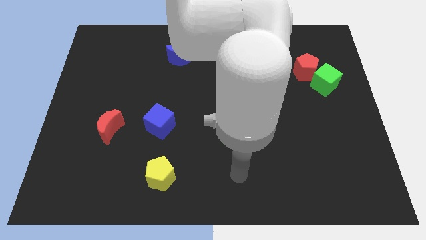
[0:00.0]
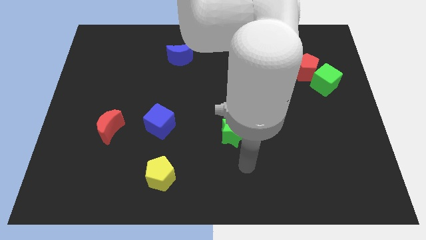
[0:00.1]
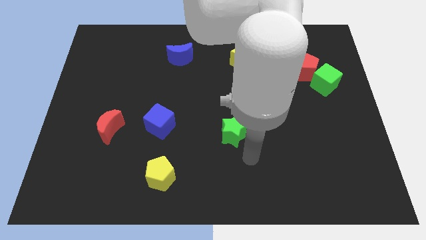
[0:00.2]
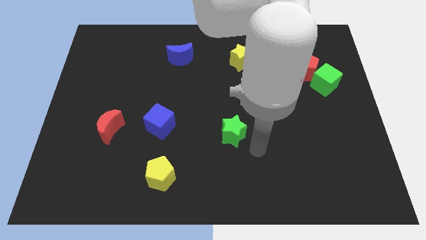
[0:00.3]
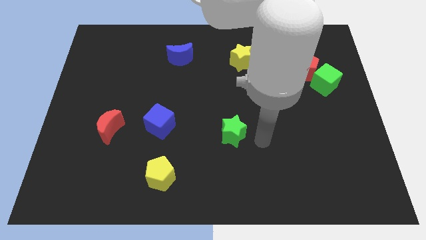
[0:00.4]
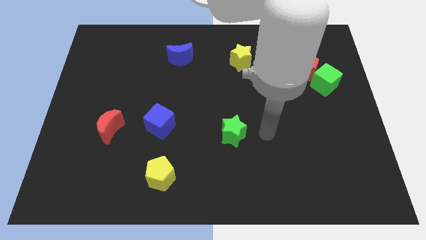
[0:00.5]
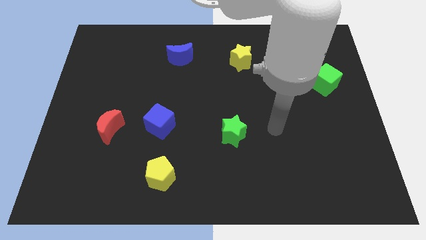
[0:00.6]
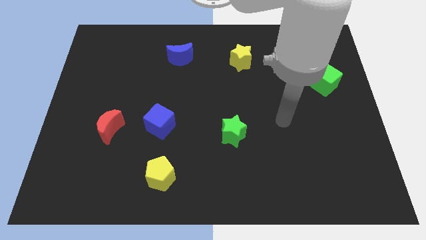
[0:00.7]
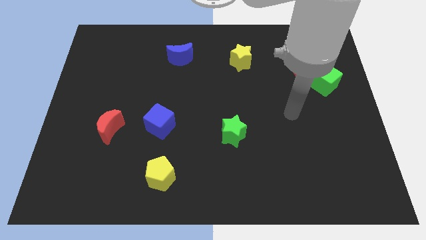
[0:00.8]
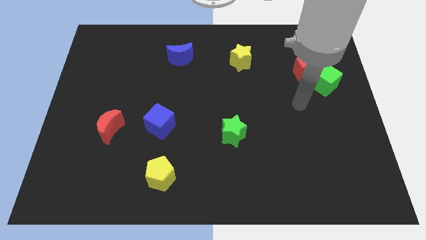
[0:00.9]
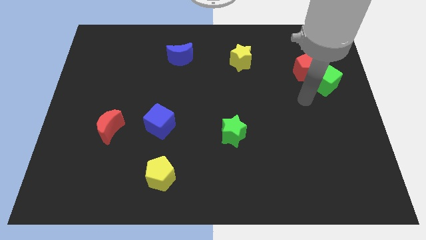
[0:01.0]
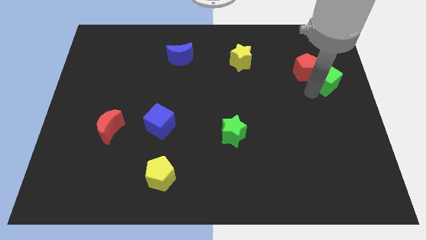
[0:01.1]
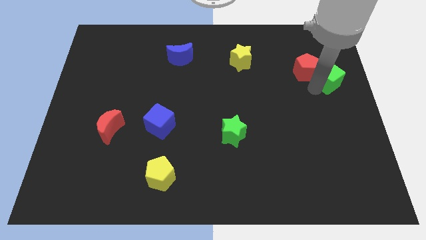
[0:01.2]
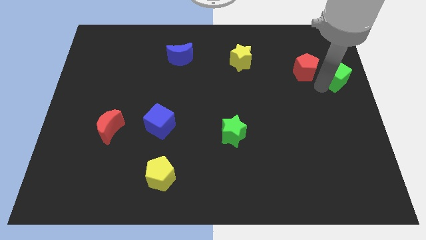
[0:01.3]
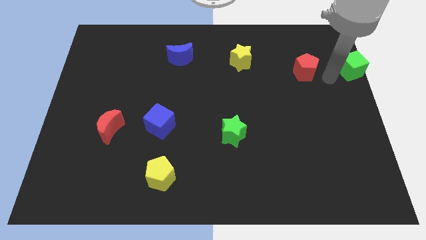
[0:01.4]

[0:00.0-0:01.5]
pull the red pentagon apart from the green cube

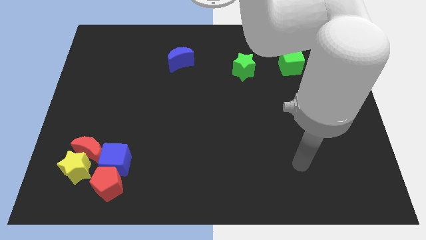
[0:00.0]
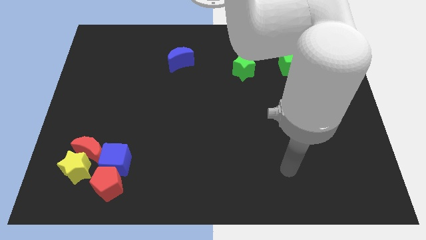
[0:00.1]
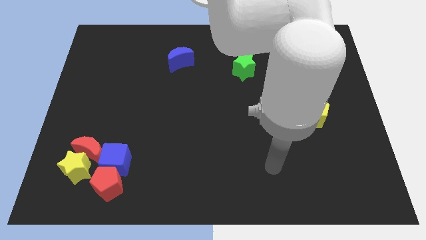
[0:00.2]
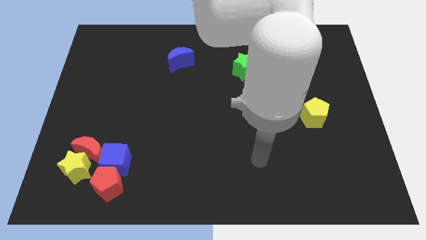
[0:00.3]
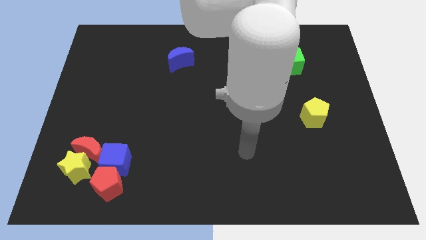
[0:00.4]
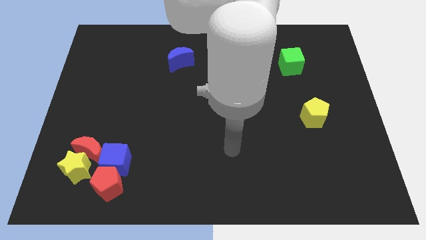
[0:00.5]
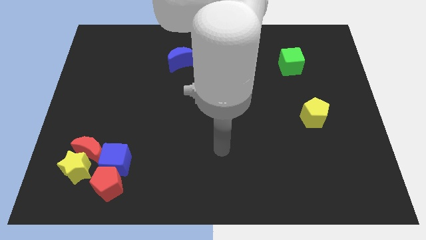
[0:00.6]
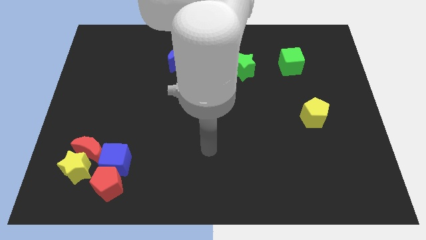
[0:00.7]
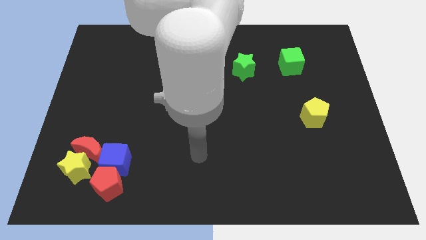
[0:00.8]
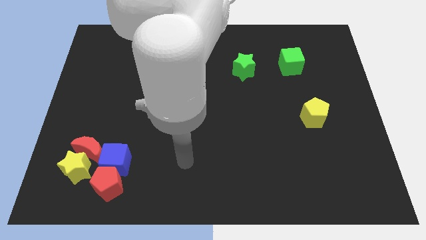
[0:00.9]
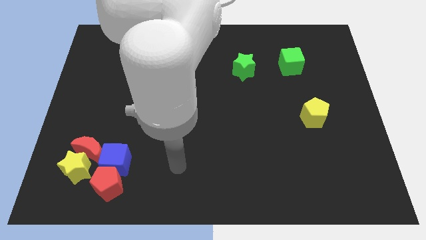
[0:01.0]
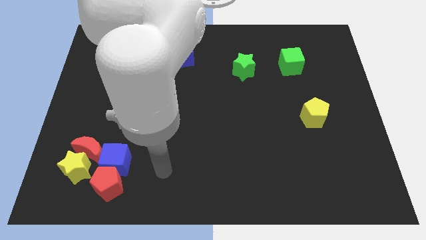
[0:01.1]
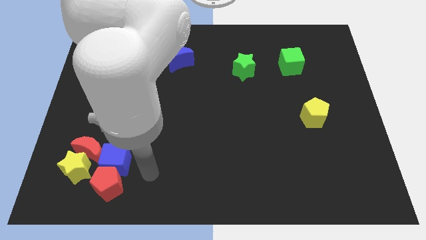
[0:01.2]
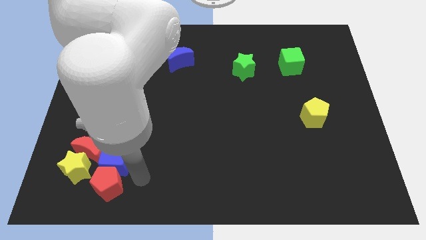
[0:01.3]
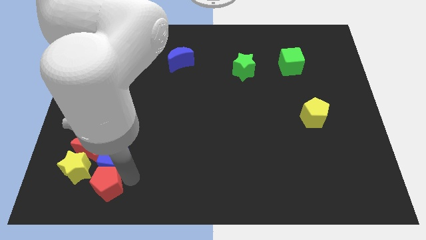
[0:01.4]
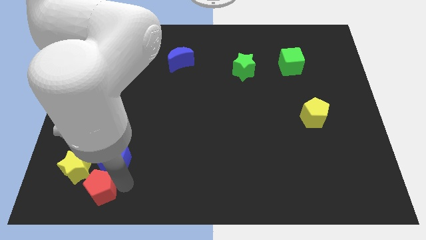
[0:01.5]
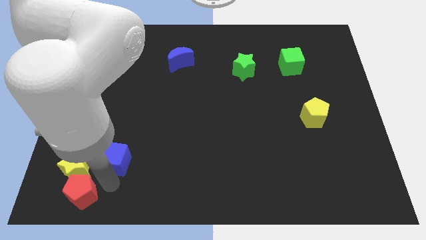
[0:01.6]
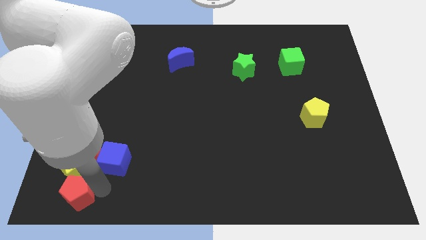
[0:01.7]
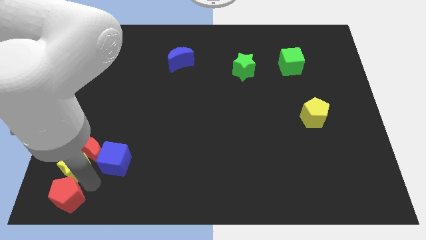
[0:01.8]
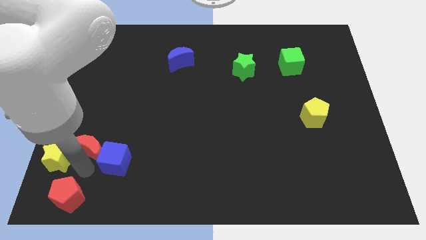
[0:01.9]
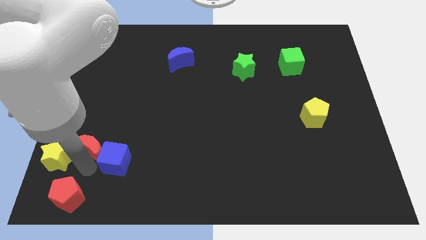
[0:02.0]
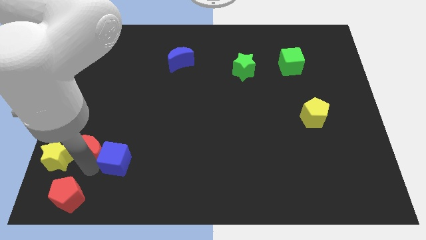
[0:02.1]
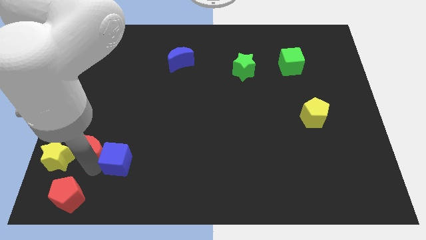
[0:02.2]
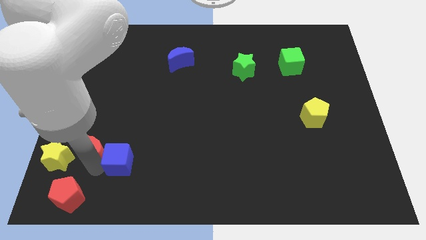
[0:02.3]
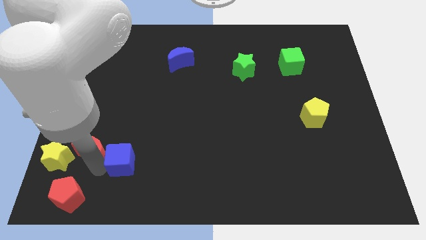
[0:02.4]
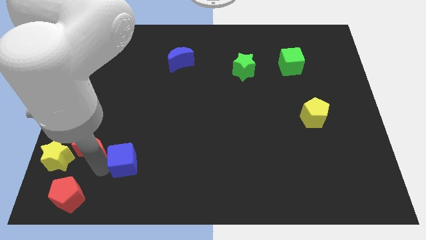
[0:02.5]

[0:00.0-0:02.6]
move the blue cube away from the red pentagon, red moon, and yellow star

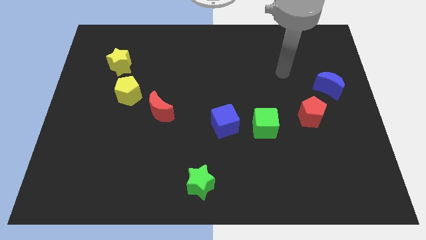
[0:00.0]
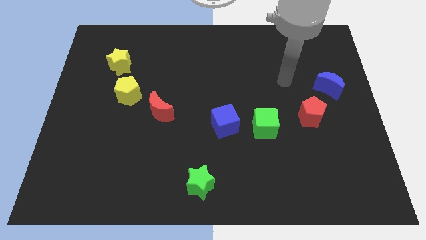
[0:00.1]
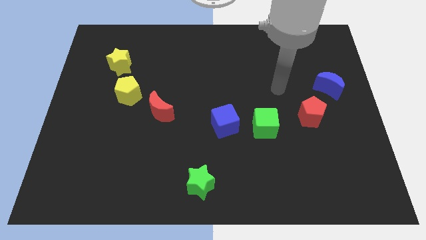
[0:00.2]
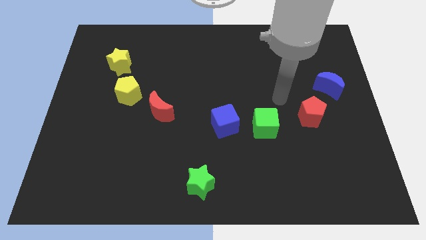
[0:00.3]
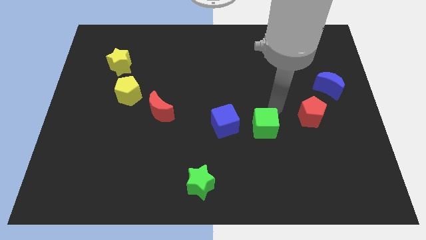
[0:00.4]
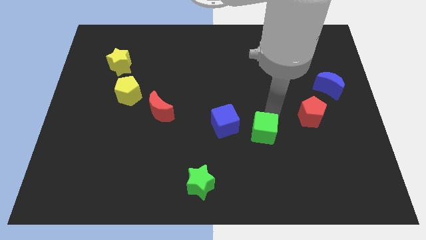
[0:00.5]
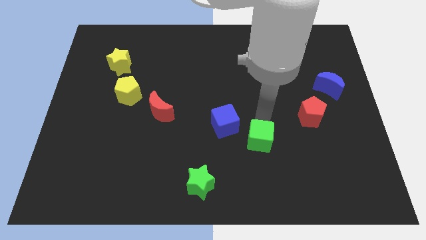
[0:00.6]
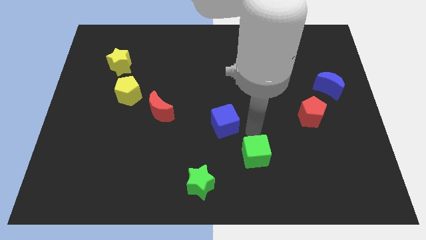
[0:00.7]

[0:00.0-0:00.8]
pull the blue cube apart from the green cube

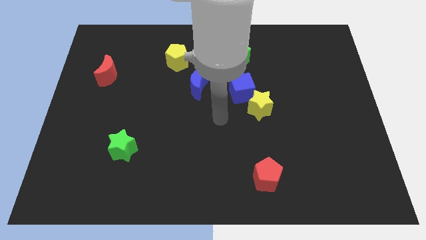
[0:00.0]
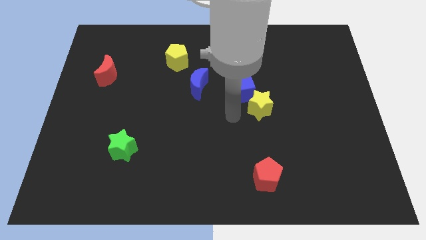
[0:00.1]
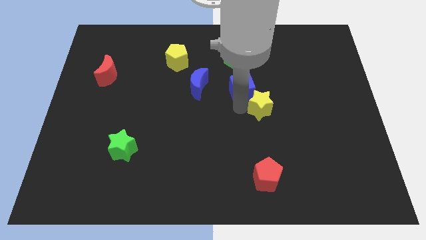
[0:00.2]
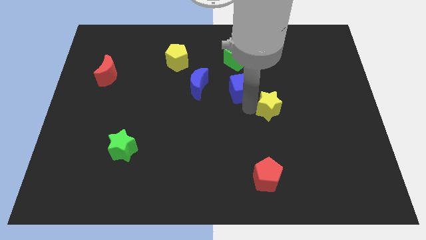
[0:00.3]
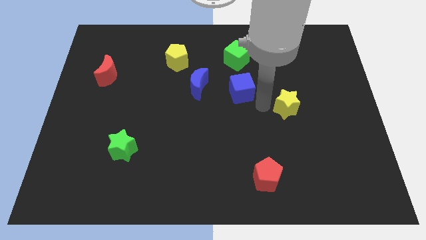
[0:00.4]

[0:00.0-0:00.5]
separate the blue cube from the yellow star

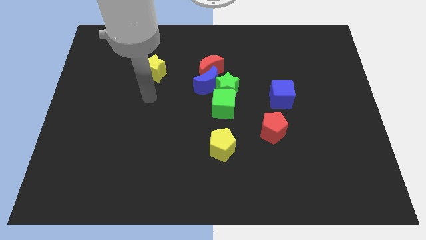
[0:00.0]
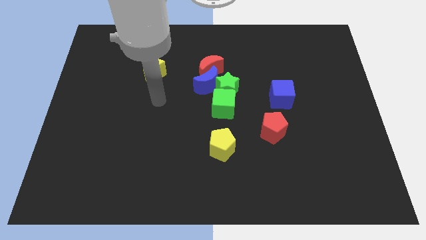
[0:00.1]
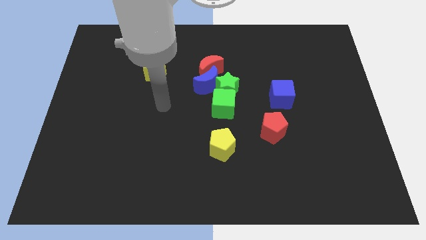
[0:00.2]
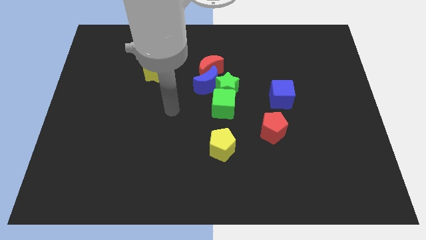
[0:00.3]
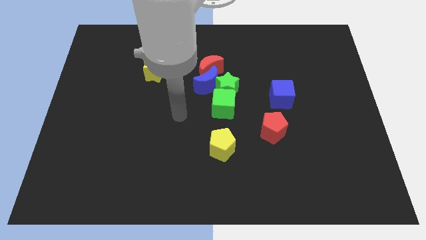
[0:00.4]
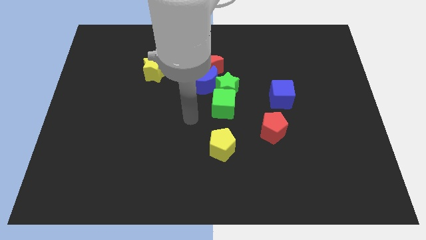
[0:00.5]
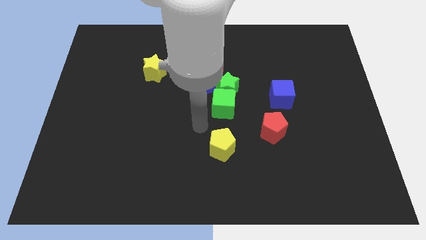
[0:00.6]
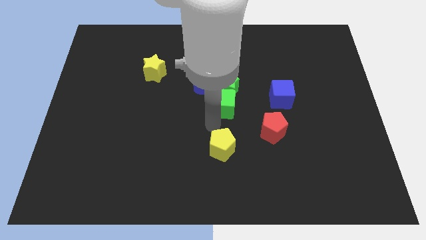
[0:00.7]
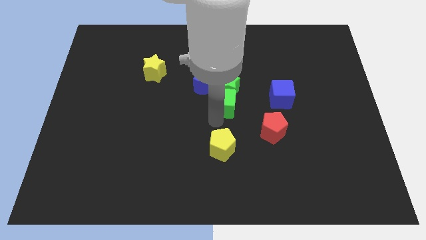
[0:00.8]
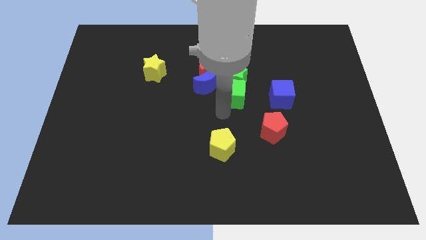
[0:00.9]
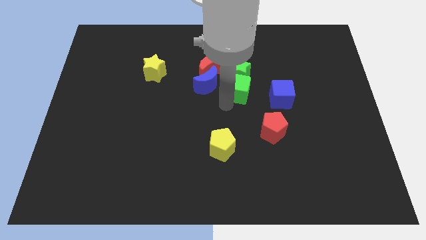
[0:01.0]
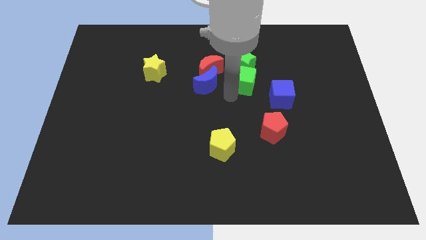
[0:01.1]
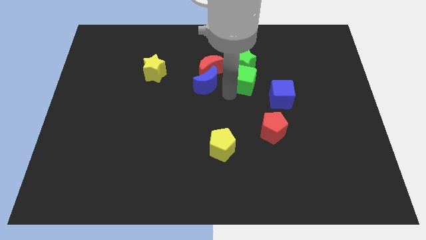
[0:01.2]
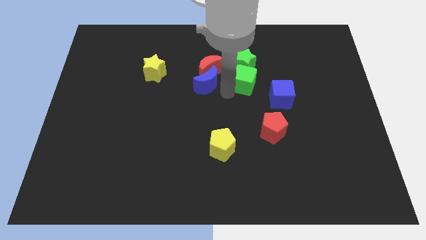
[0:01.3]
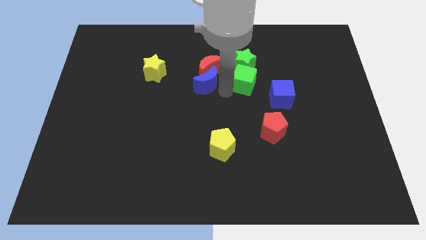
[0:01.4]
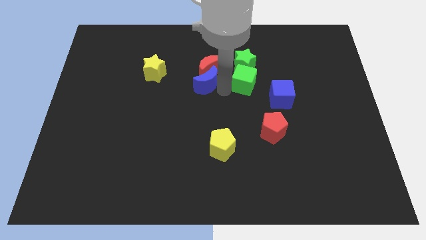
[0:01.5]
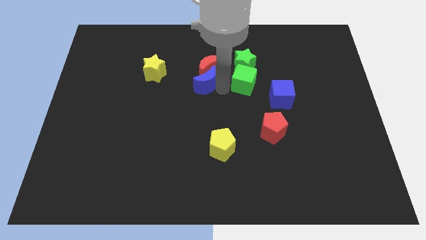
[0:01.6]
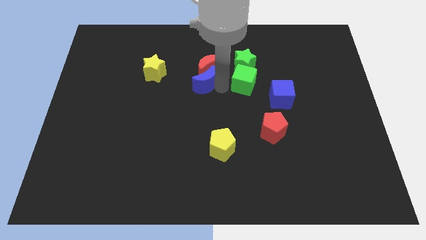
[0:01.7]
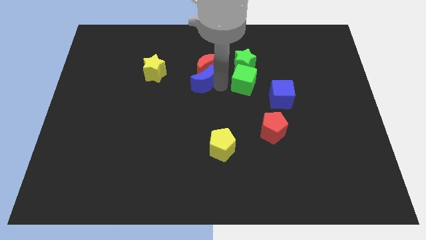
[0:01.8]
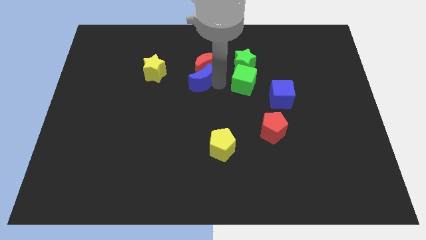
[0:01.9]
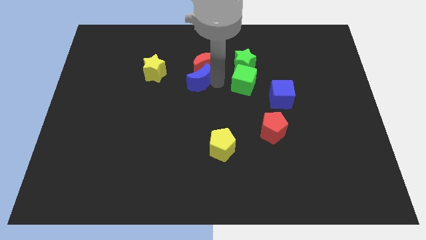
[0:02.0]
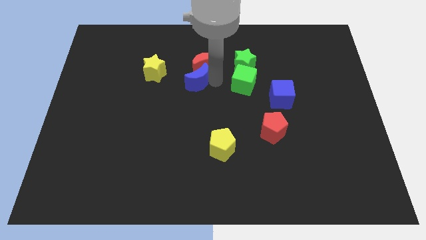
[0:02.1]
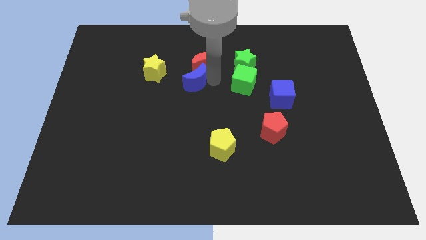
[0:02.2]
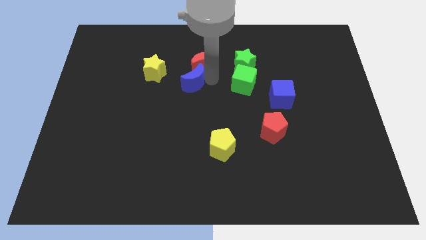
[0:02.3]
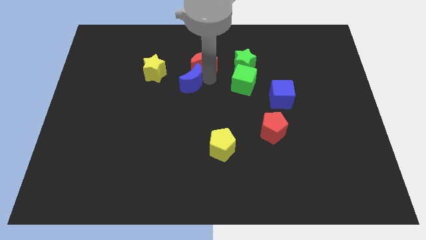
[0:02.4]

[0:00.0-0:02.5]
pull the blue moon apart from the green star, red moon, and green cube

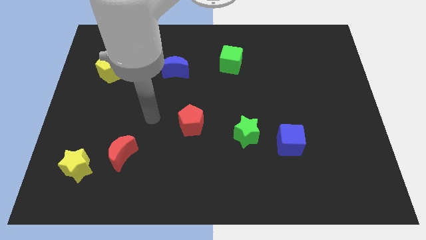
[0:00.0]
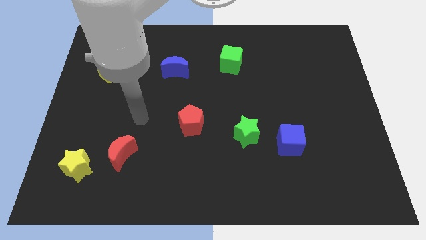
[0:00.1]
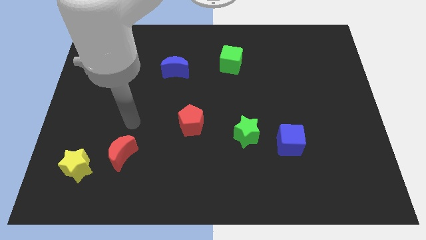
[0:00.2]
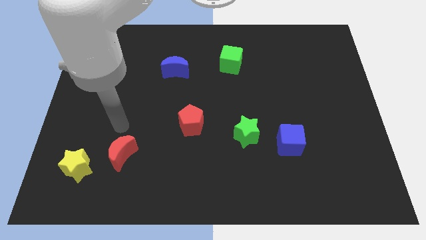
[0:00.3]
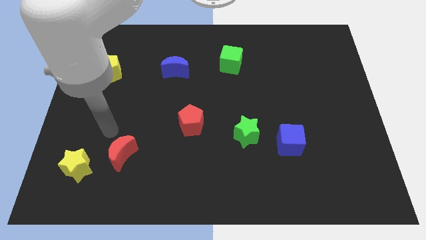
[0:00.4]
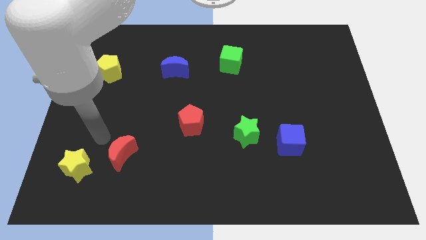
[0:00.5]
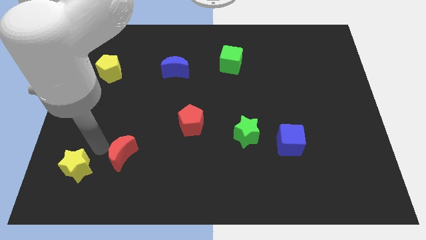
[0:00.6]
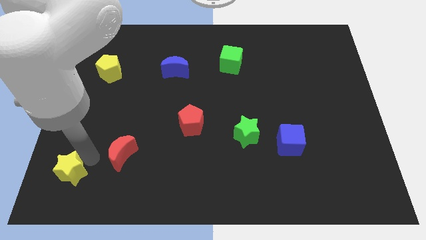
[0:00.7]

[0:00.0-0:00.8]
separate the red moon from the yellow star

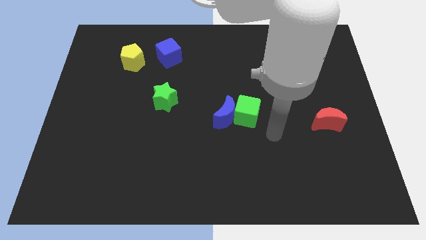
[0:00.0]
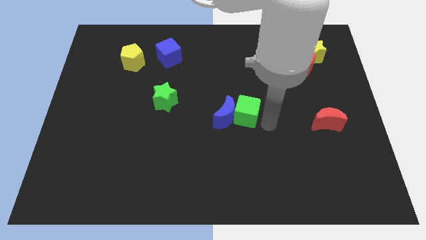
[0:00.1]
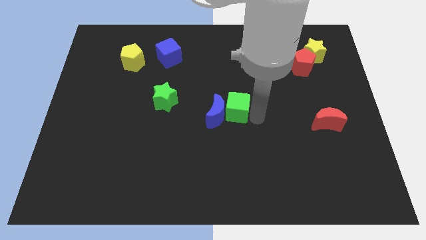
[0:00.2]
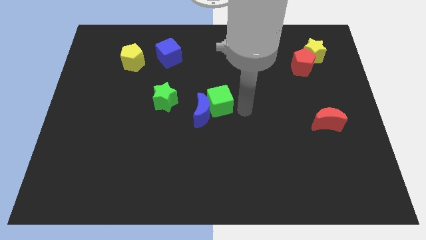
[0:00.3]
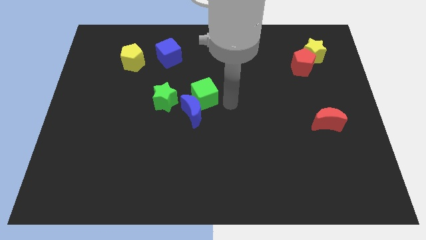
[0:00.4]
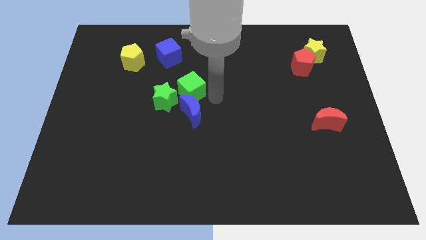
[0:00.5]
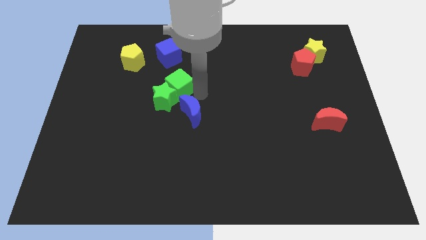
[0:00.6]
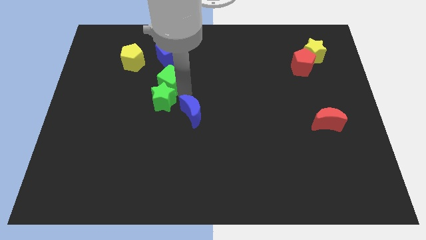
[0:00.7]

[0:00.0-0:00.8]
separate the blue moon from the green cube
